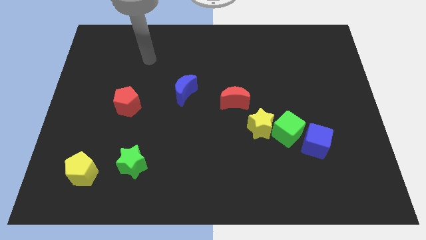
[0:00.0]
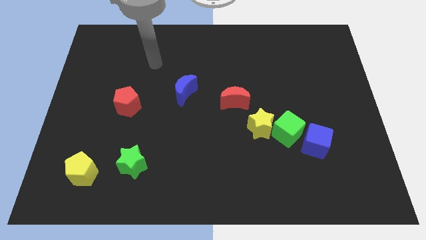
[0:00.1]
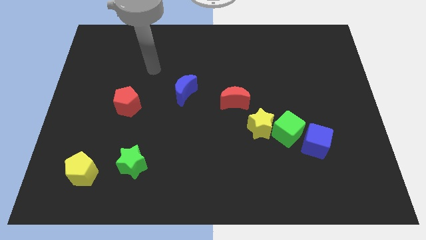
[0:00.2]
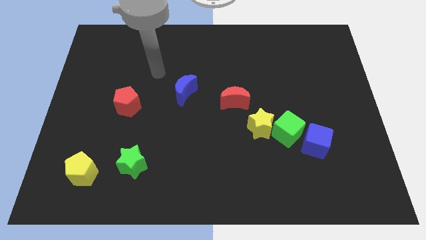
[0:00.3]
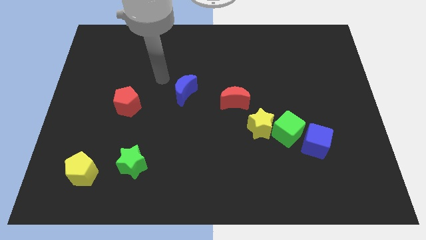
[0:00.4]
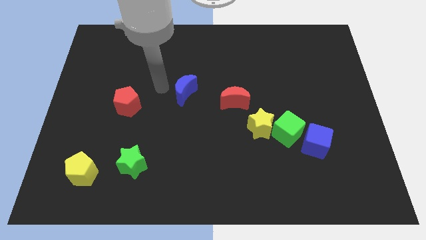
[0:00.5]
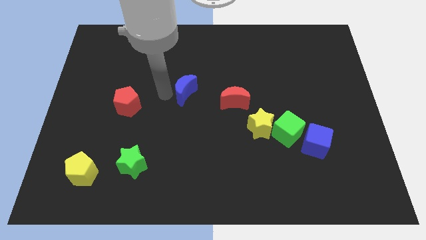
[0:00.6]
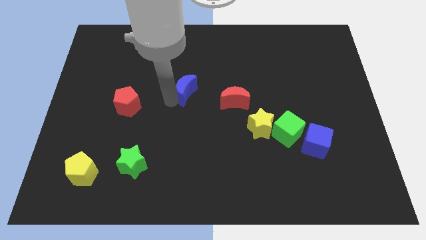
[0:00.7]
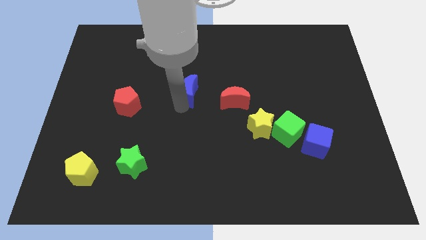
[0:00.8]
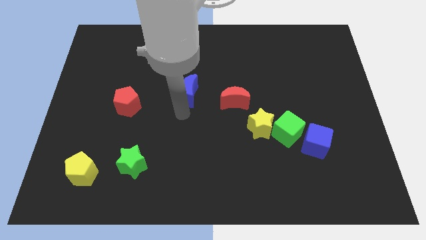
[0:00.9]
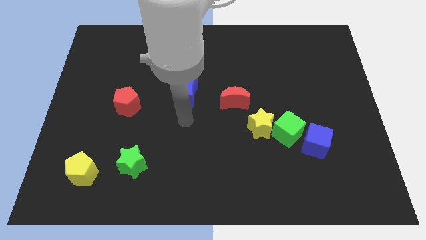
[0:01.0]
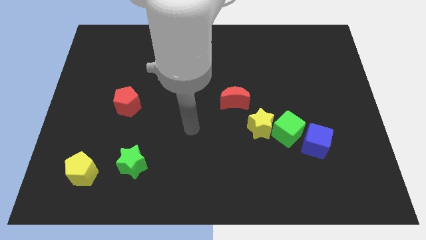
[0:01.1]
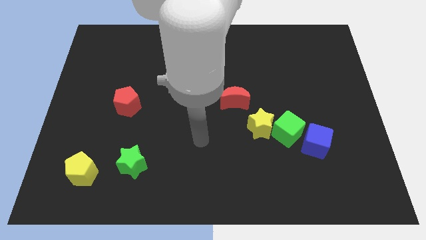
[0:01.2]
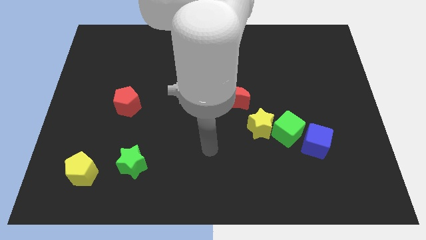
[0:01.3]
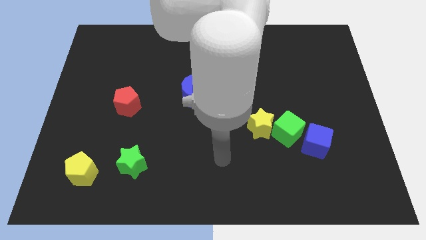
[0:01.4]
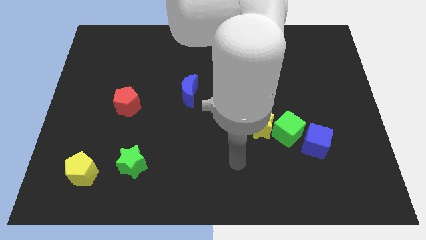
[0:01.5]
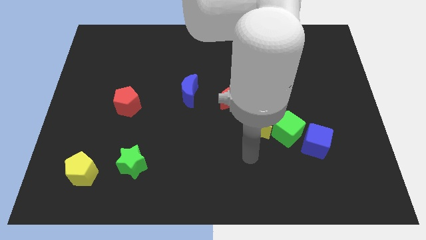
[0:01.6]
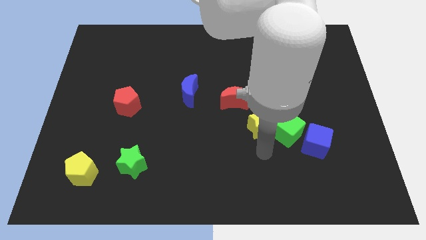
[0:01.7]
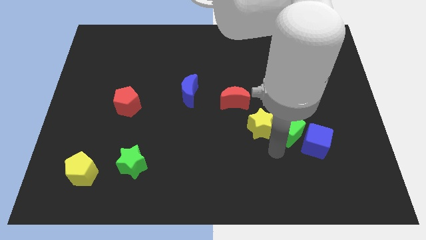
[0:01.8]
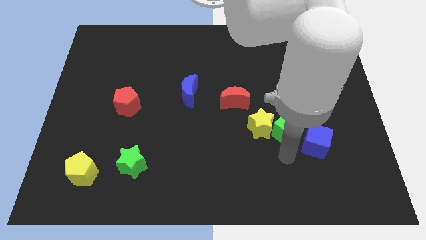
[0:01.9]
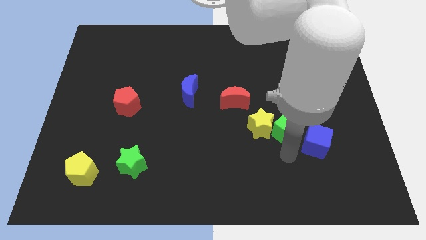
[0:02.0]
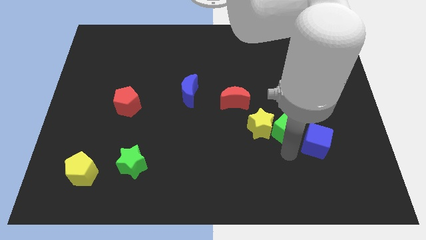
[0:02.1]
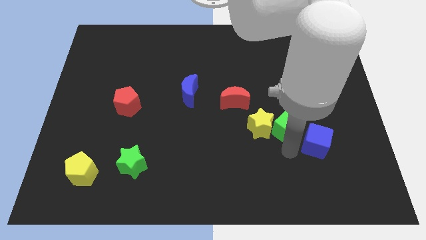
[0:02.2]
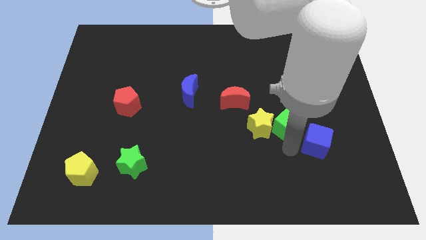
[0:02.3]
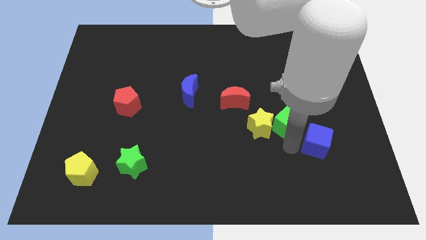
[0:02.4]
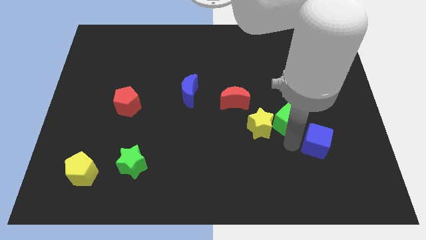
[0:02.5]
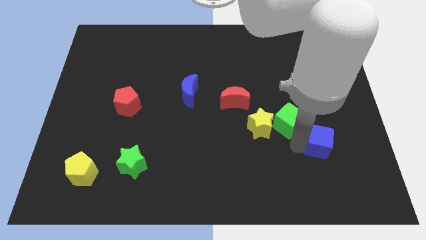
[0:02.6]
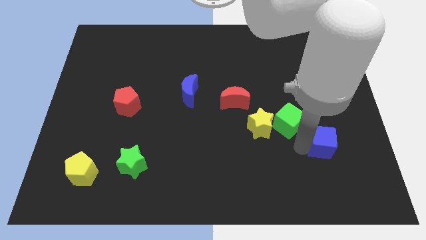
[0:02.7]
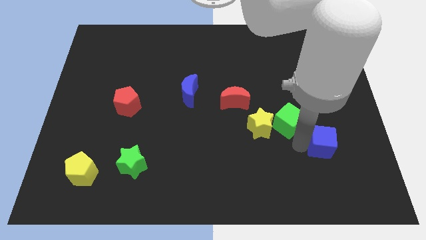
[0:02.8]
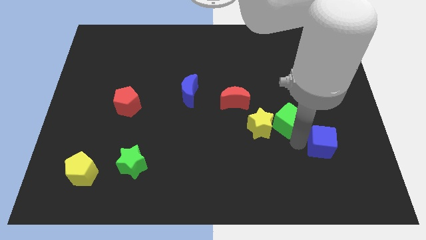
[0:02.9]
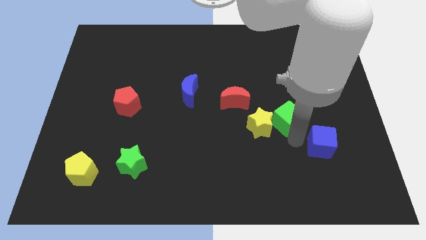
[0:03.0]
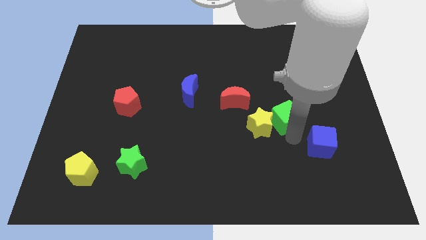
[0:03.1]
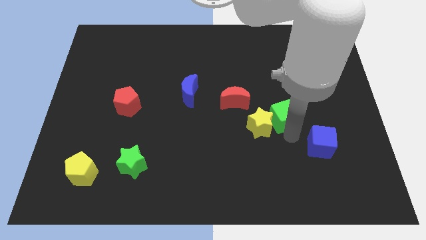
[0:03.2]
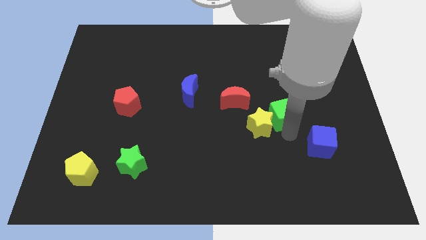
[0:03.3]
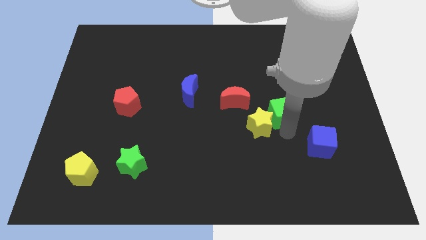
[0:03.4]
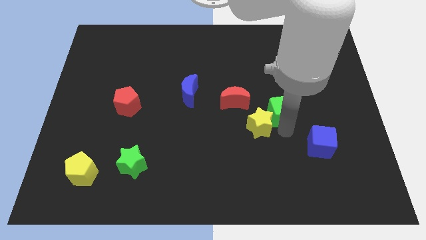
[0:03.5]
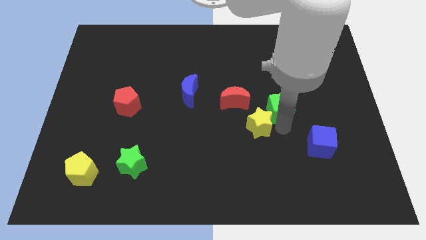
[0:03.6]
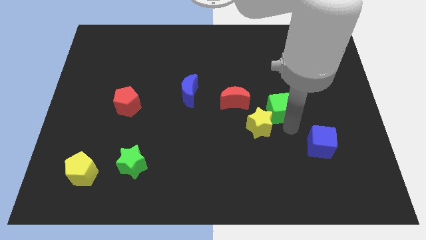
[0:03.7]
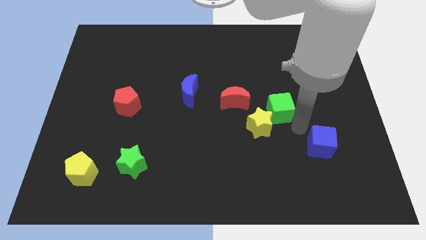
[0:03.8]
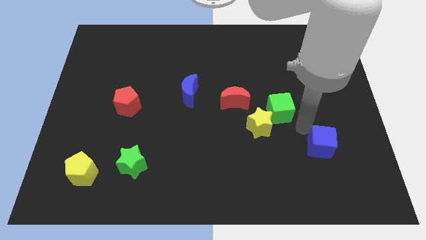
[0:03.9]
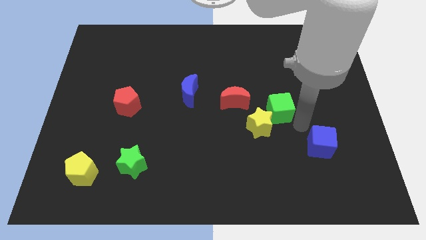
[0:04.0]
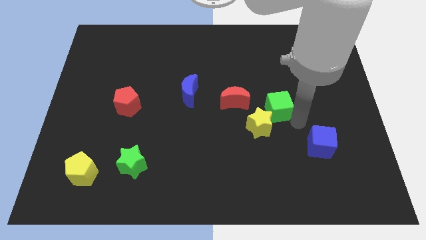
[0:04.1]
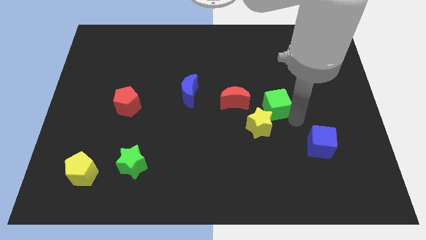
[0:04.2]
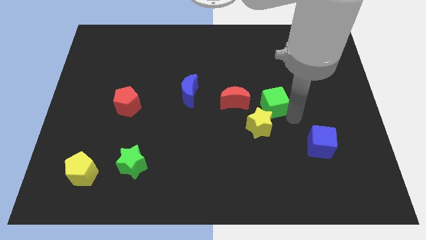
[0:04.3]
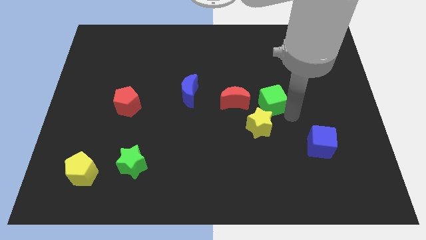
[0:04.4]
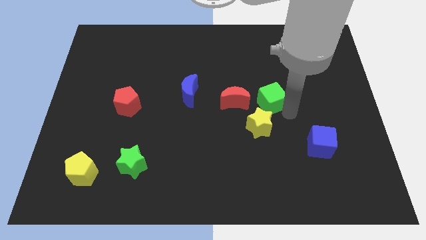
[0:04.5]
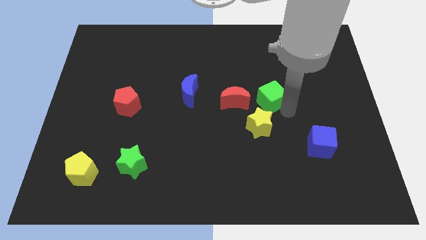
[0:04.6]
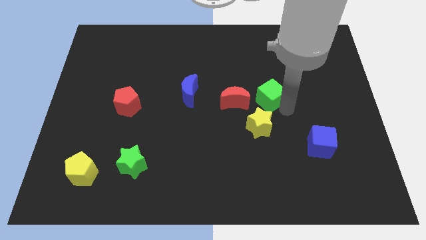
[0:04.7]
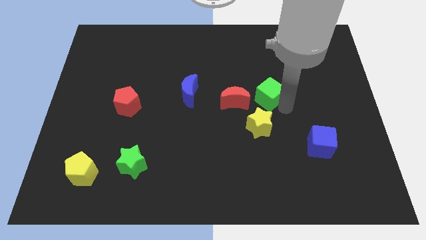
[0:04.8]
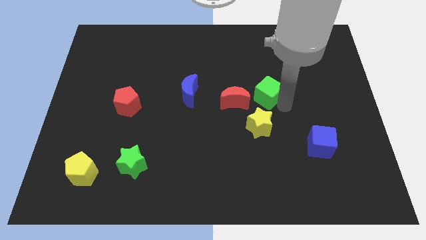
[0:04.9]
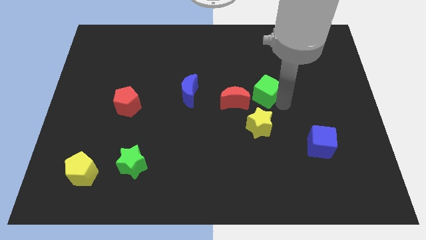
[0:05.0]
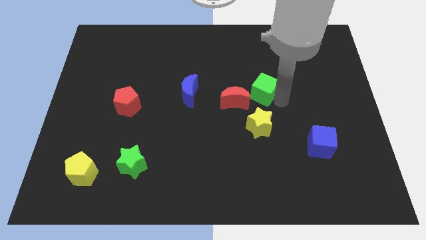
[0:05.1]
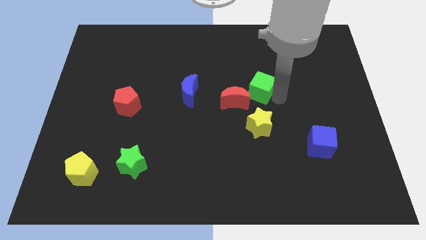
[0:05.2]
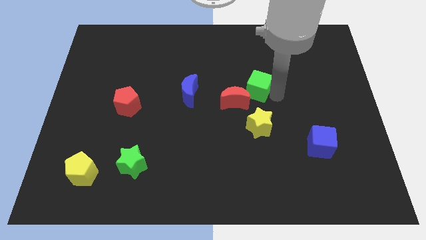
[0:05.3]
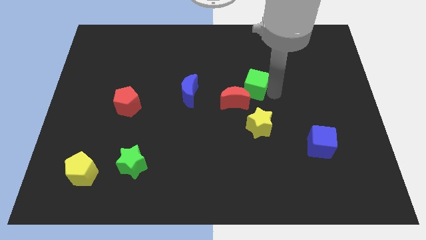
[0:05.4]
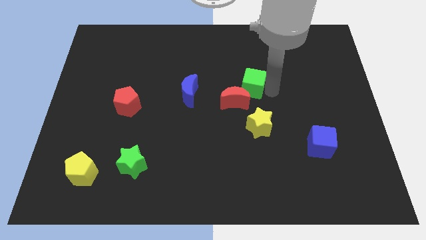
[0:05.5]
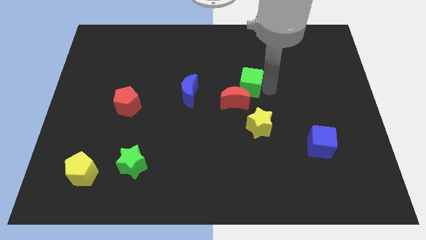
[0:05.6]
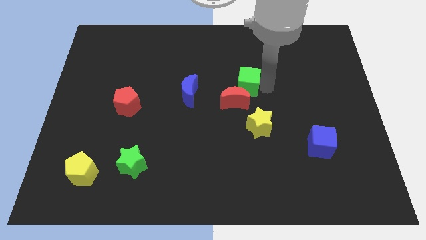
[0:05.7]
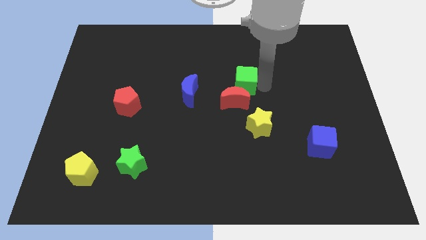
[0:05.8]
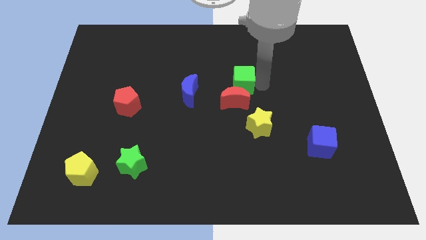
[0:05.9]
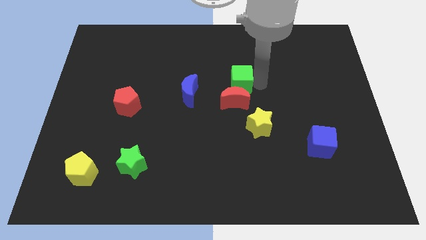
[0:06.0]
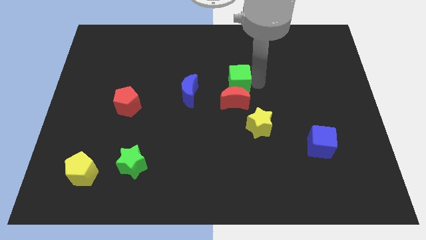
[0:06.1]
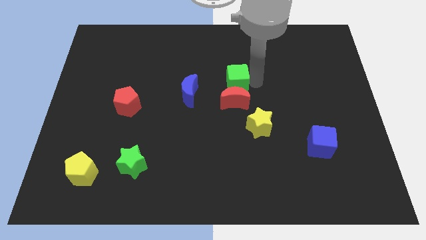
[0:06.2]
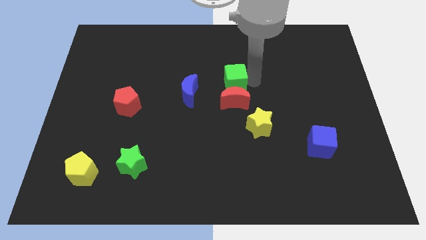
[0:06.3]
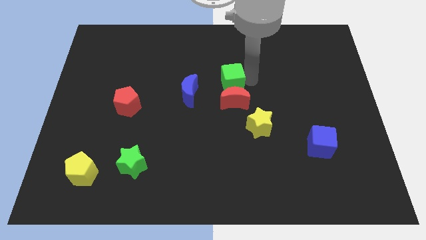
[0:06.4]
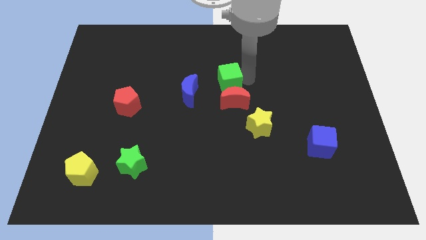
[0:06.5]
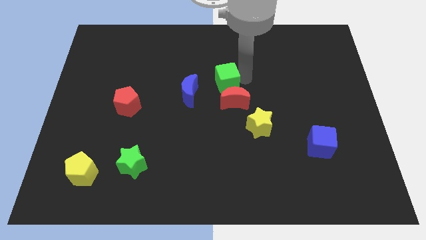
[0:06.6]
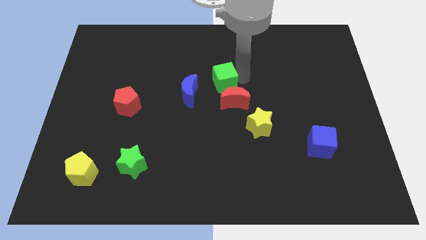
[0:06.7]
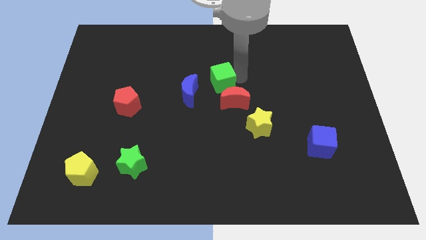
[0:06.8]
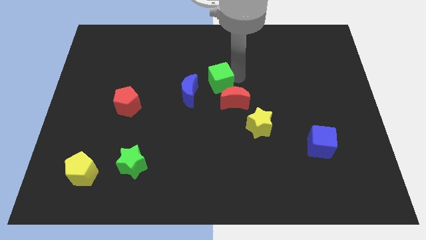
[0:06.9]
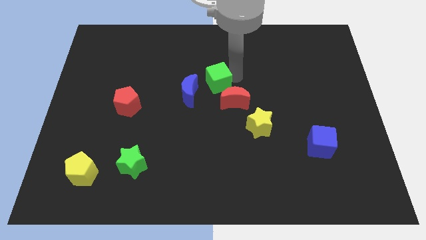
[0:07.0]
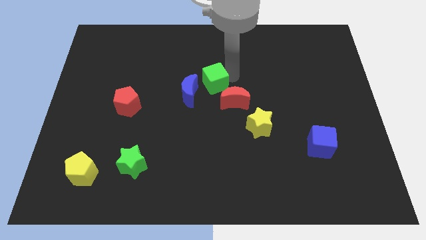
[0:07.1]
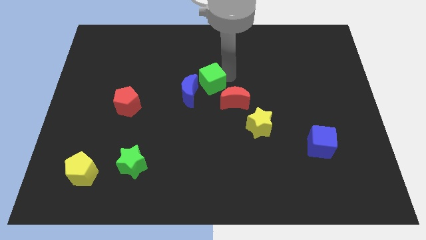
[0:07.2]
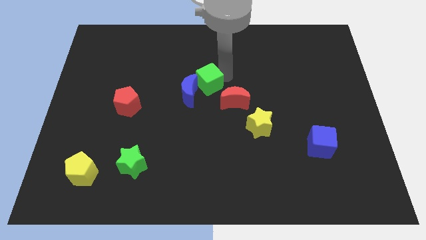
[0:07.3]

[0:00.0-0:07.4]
push the green cube next to the blue moon

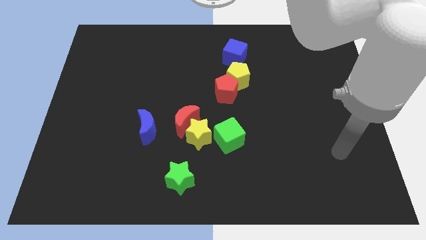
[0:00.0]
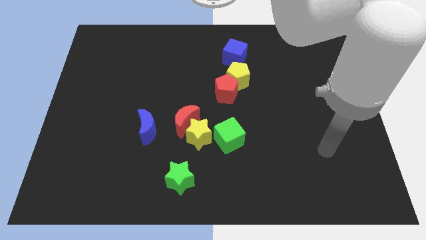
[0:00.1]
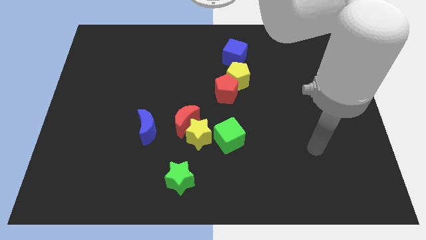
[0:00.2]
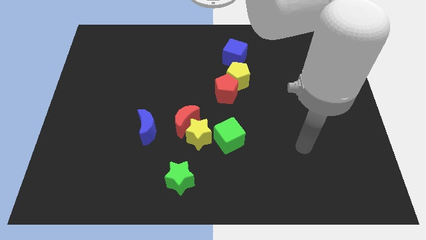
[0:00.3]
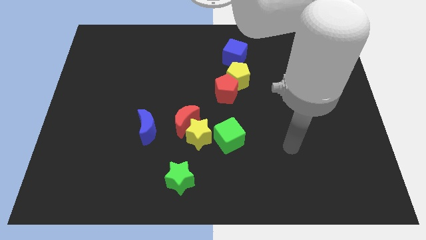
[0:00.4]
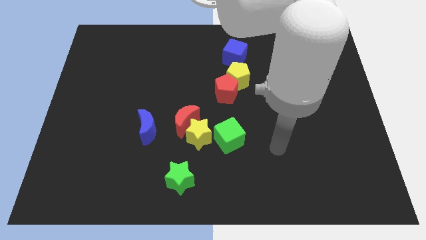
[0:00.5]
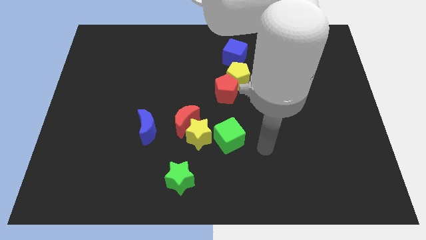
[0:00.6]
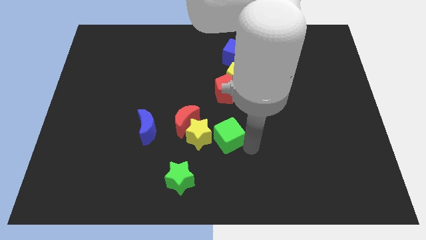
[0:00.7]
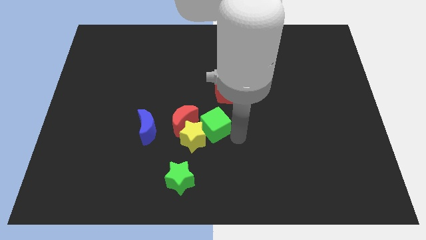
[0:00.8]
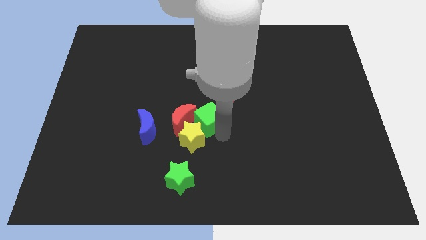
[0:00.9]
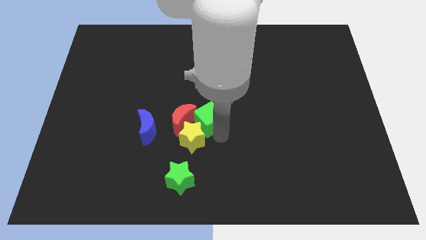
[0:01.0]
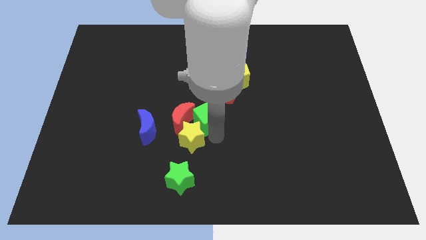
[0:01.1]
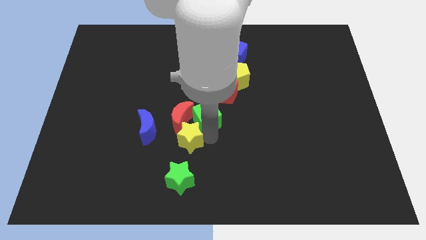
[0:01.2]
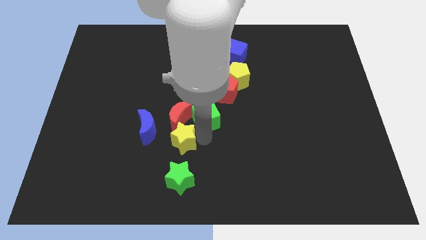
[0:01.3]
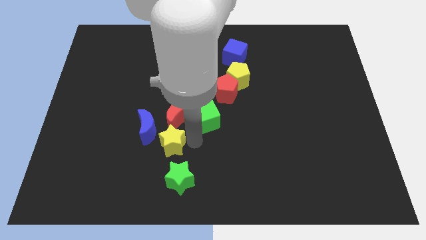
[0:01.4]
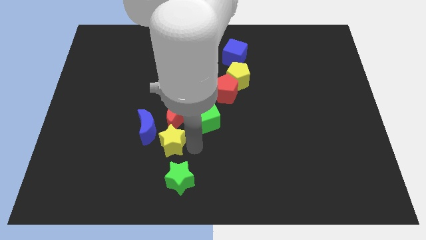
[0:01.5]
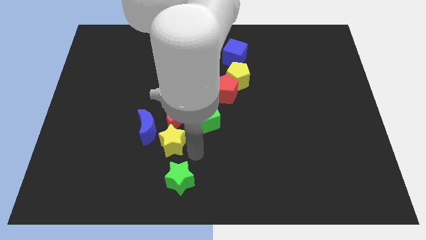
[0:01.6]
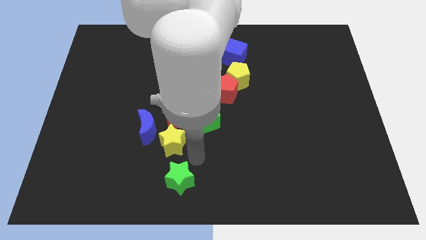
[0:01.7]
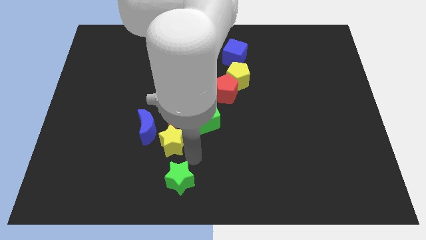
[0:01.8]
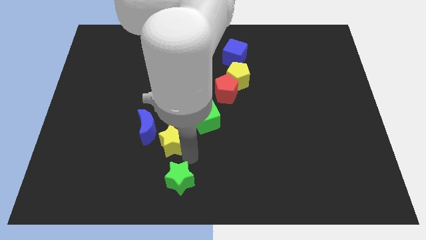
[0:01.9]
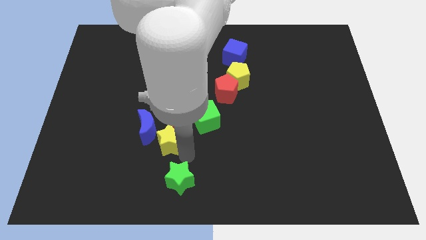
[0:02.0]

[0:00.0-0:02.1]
move the yellow star towards the blue moon
